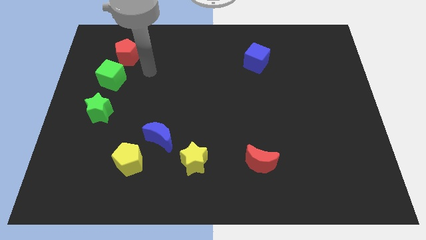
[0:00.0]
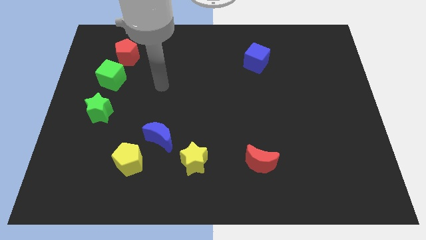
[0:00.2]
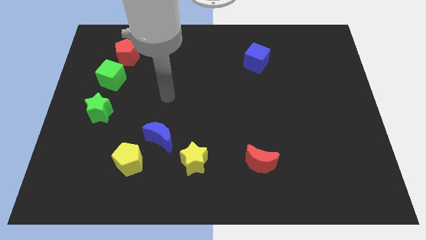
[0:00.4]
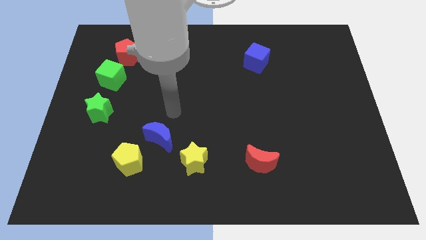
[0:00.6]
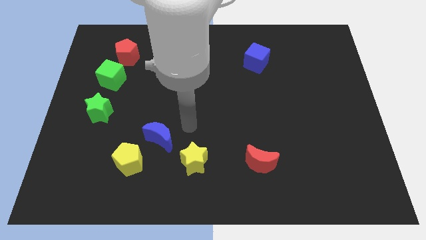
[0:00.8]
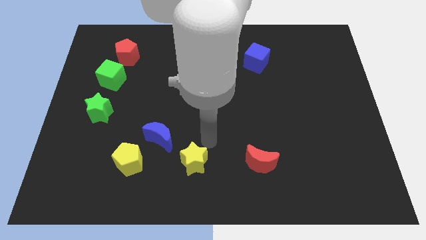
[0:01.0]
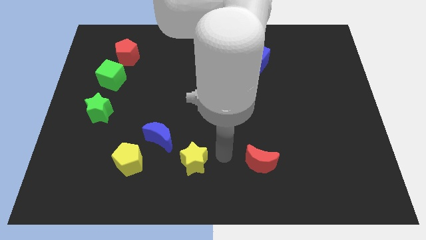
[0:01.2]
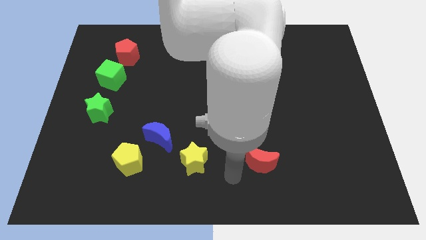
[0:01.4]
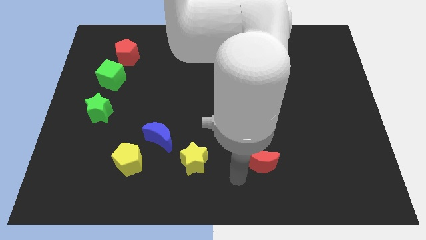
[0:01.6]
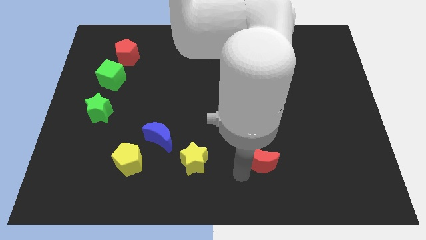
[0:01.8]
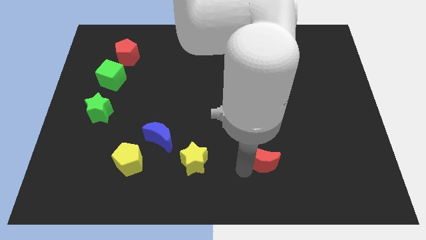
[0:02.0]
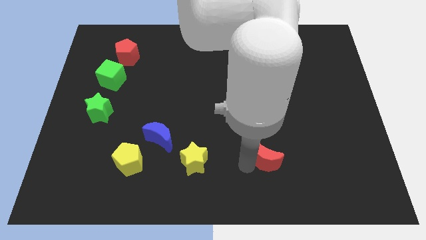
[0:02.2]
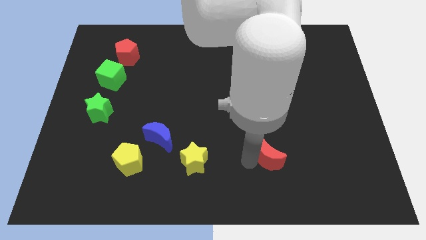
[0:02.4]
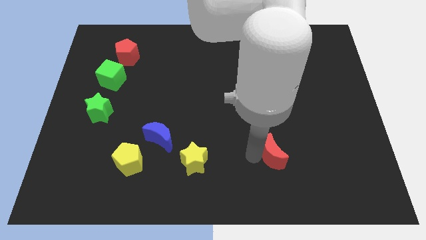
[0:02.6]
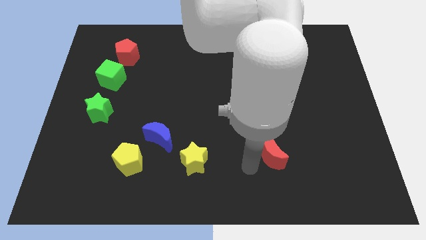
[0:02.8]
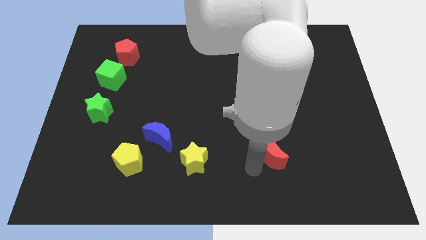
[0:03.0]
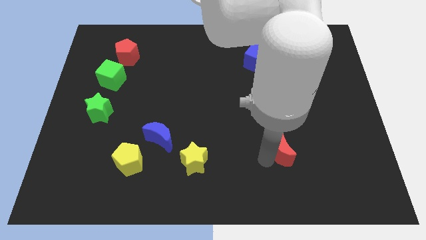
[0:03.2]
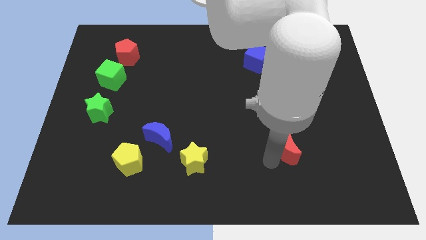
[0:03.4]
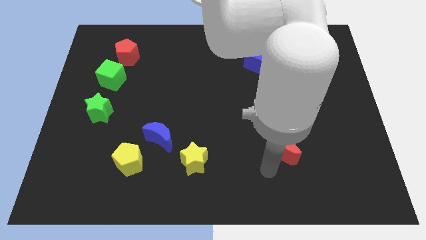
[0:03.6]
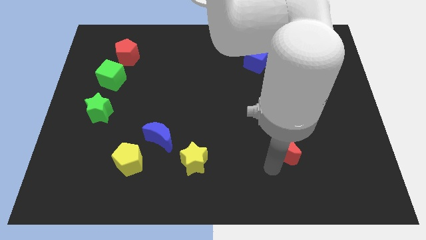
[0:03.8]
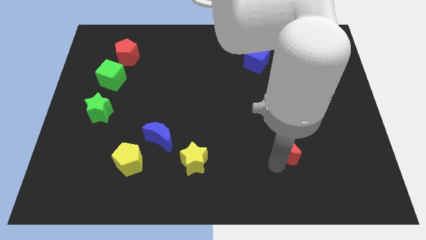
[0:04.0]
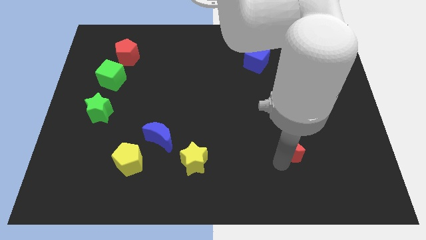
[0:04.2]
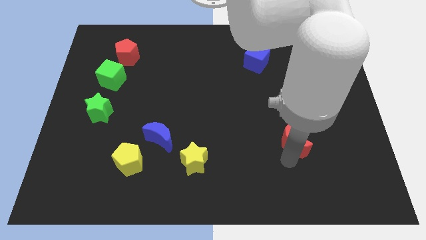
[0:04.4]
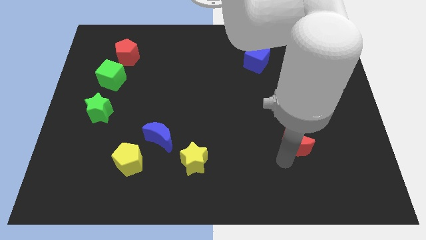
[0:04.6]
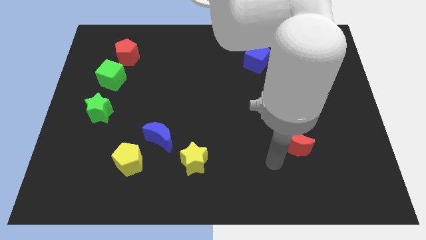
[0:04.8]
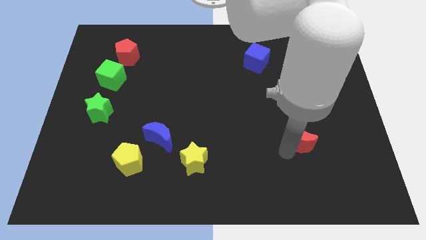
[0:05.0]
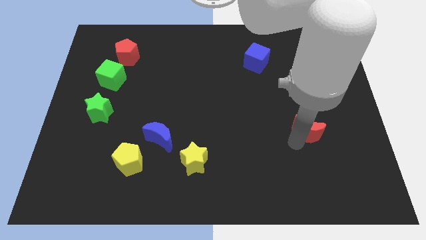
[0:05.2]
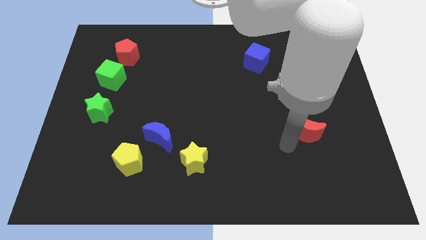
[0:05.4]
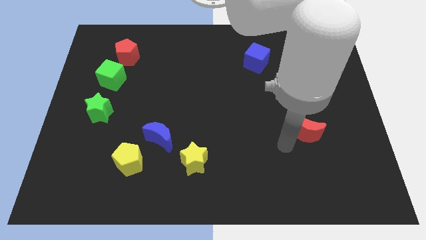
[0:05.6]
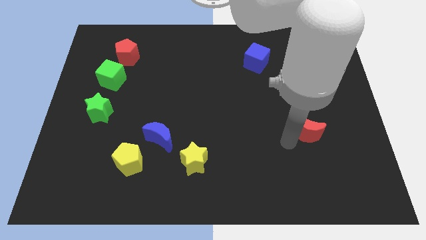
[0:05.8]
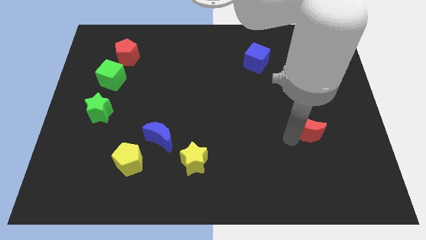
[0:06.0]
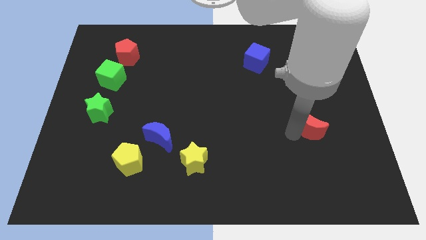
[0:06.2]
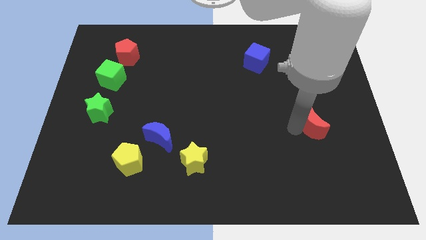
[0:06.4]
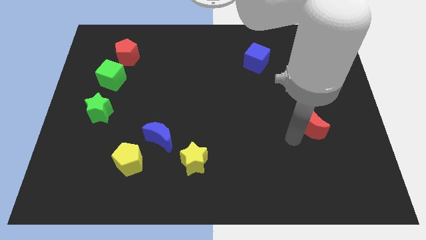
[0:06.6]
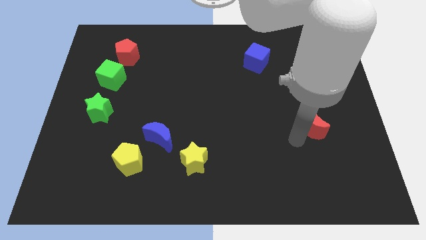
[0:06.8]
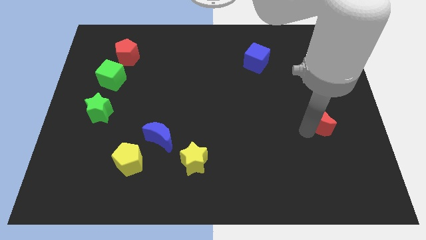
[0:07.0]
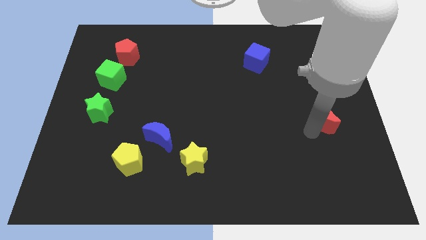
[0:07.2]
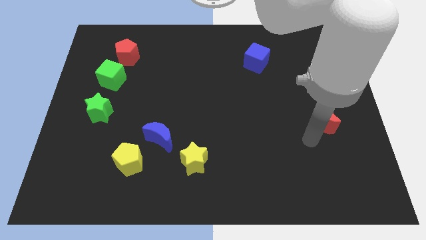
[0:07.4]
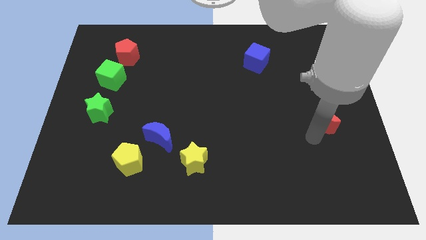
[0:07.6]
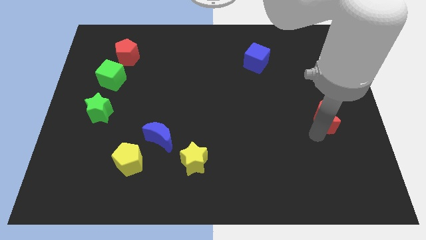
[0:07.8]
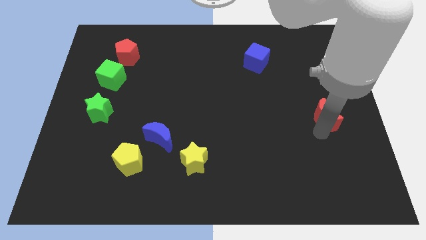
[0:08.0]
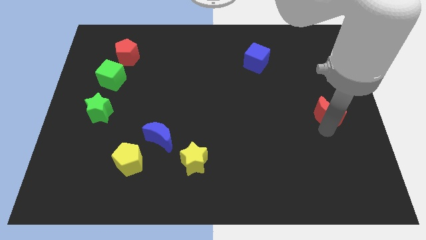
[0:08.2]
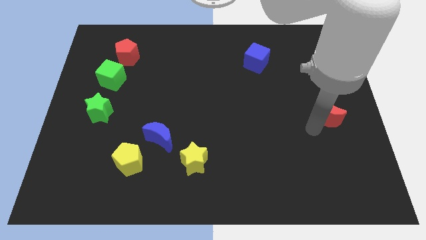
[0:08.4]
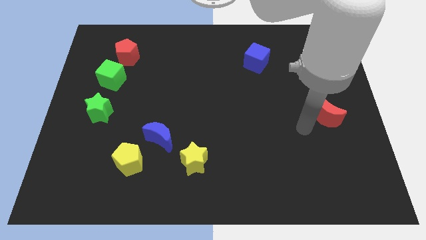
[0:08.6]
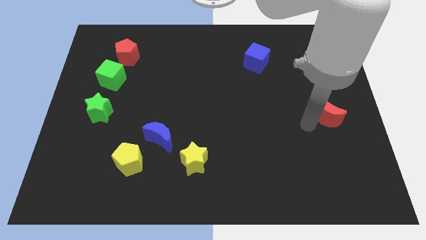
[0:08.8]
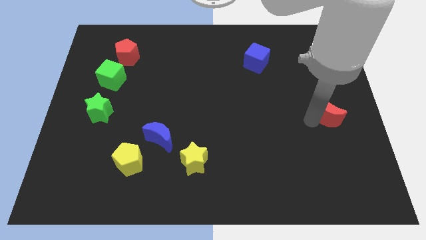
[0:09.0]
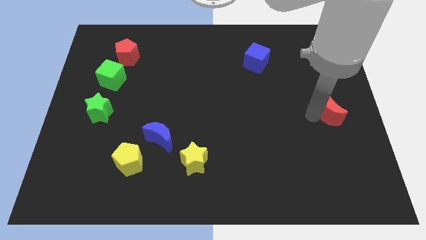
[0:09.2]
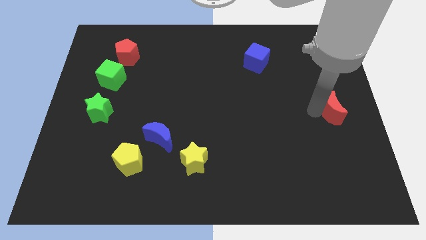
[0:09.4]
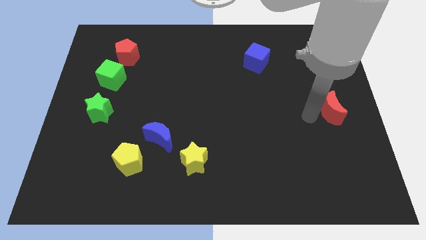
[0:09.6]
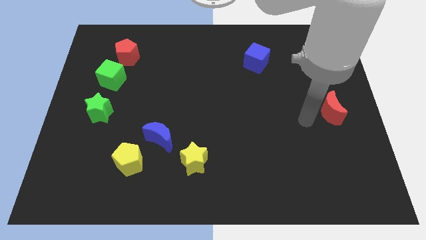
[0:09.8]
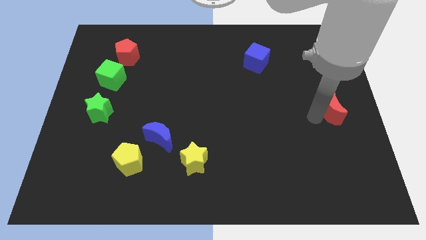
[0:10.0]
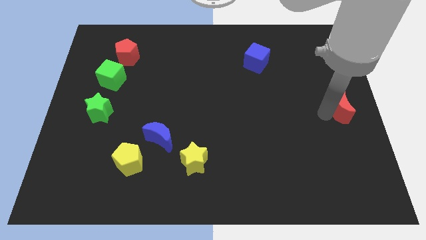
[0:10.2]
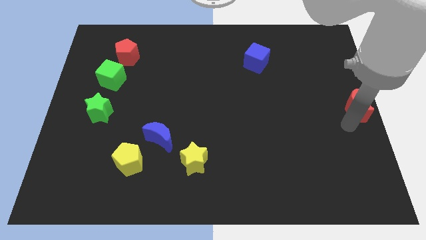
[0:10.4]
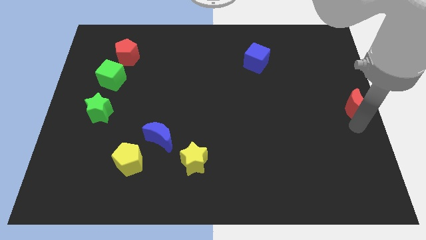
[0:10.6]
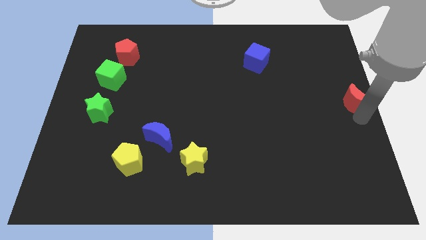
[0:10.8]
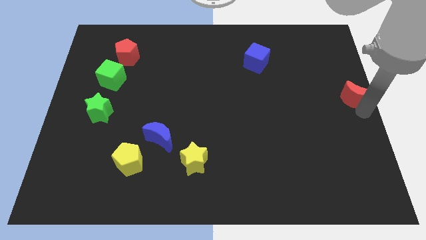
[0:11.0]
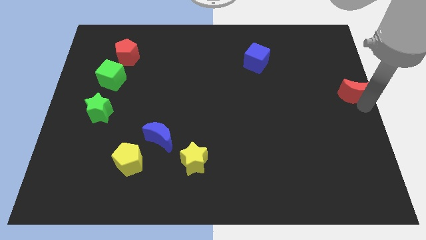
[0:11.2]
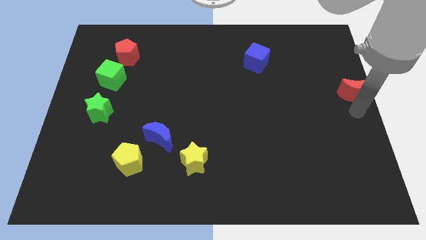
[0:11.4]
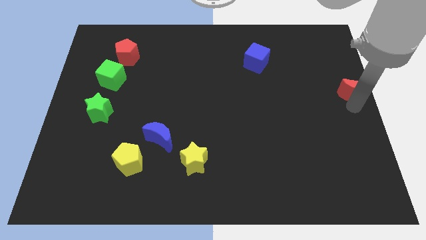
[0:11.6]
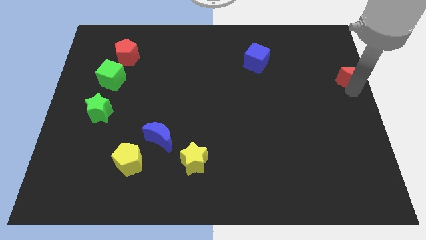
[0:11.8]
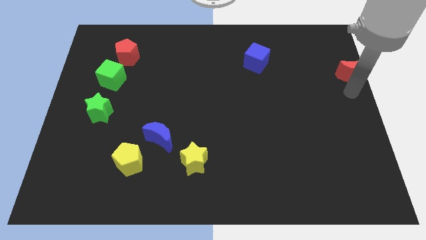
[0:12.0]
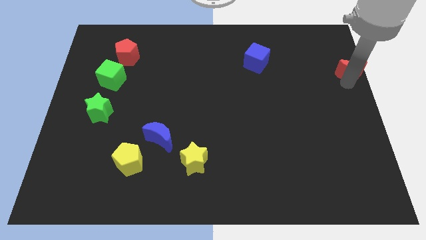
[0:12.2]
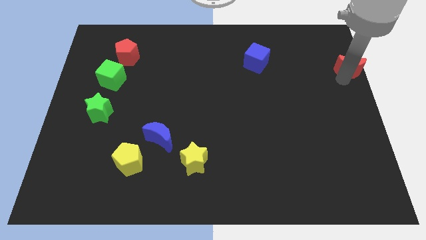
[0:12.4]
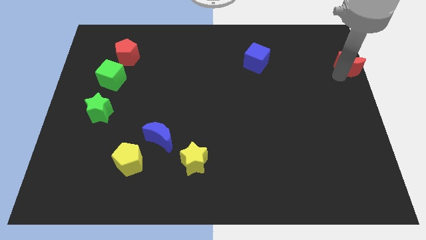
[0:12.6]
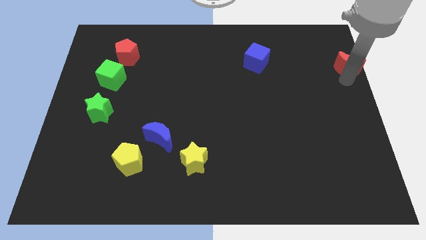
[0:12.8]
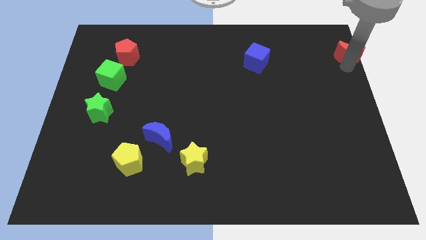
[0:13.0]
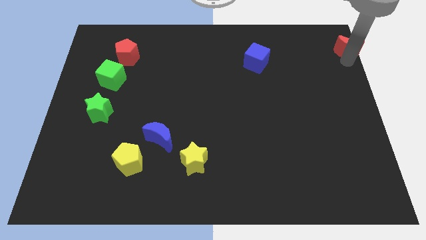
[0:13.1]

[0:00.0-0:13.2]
move the red moon to the upper right corner
